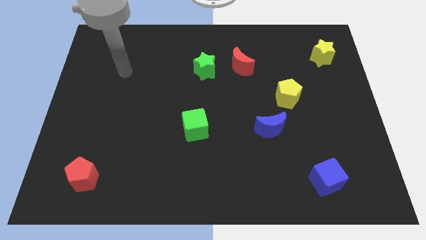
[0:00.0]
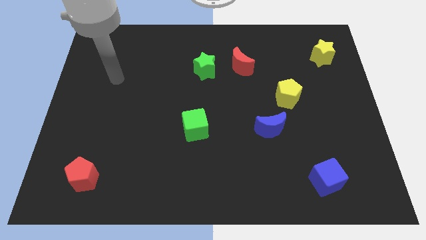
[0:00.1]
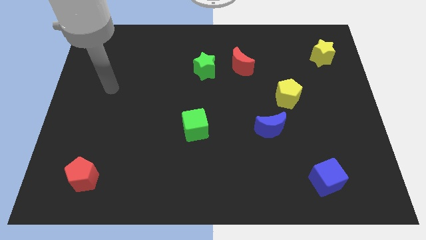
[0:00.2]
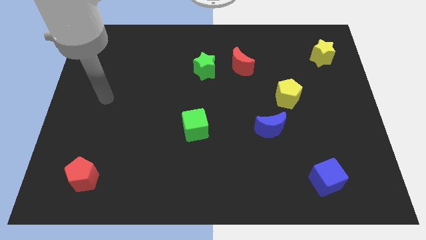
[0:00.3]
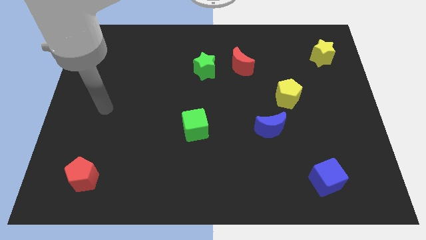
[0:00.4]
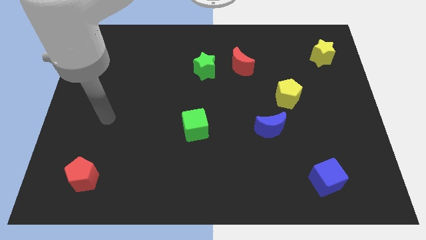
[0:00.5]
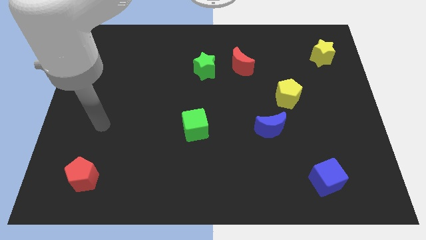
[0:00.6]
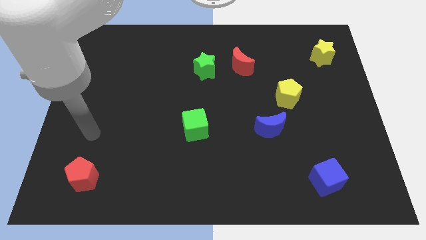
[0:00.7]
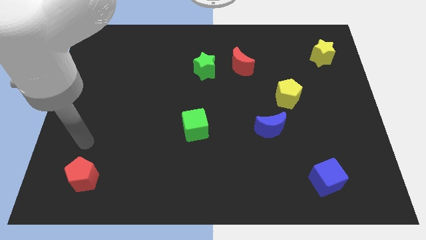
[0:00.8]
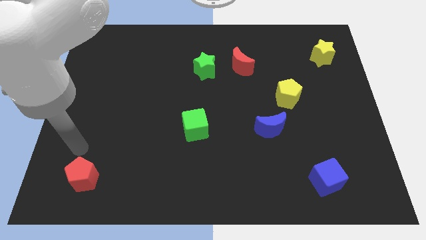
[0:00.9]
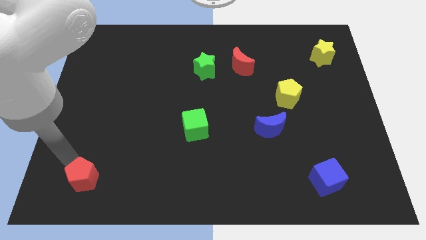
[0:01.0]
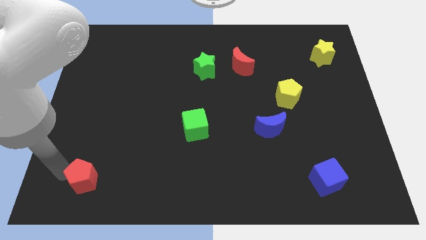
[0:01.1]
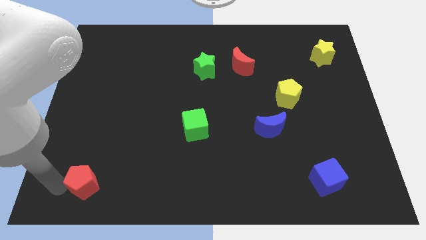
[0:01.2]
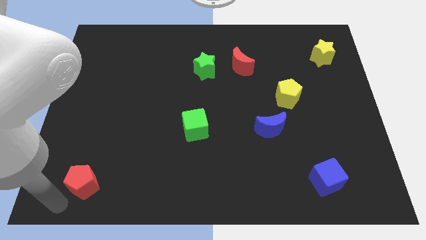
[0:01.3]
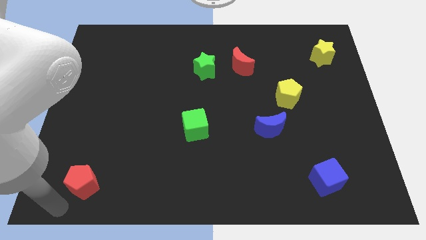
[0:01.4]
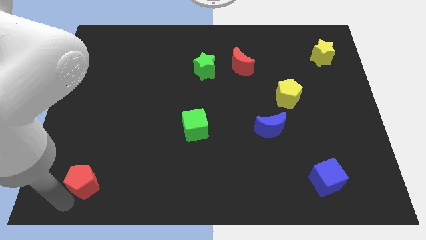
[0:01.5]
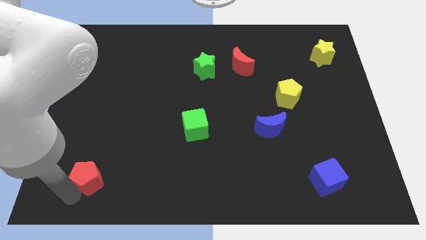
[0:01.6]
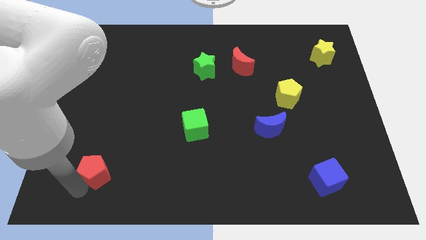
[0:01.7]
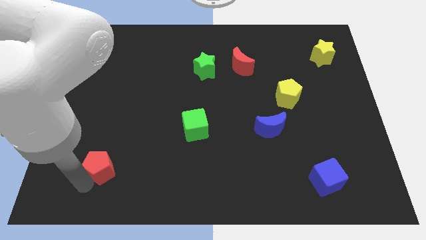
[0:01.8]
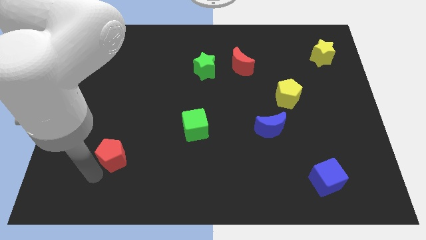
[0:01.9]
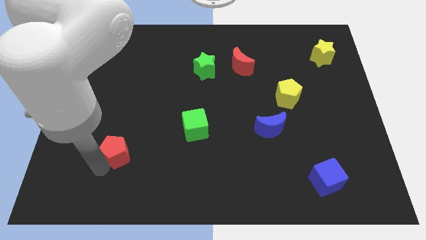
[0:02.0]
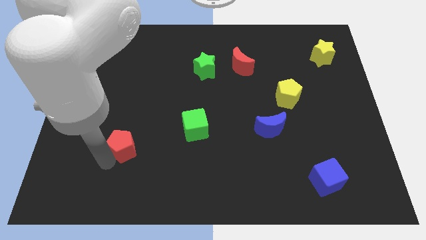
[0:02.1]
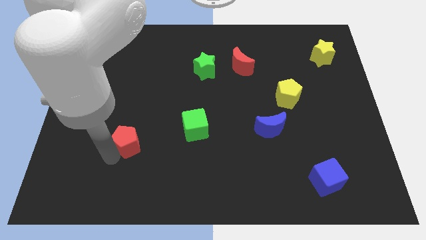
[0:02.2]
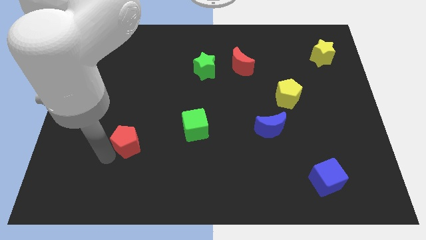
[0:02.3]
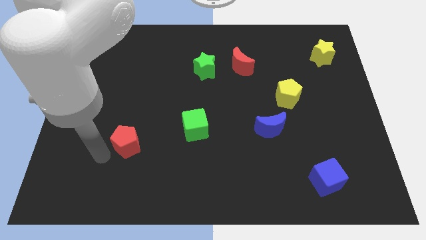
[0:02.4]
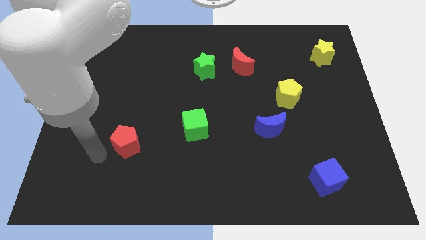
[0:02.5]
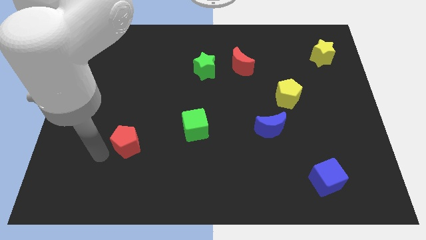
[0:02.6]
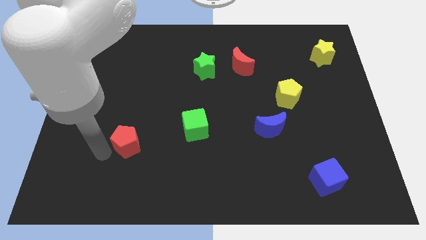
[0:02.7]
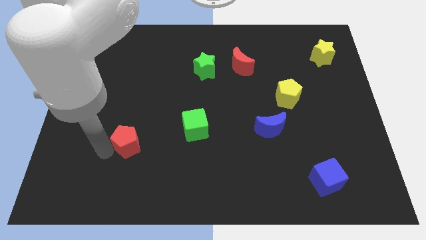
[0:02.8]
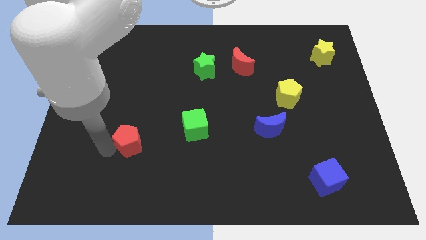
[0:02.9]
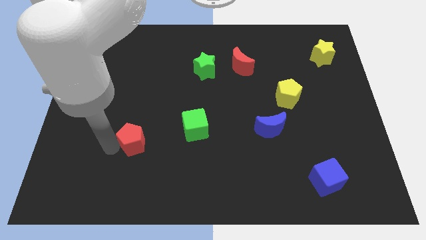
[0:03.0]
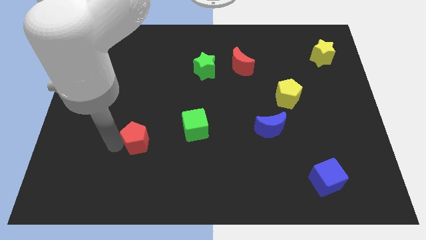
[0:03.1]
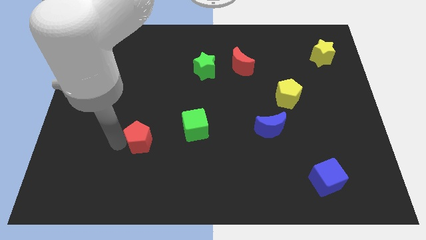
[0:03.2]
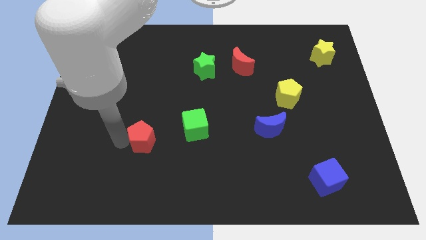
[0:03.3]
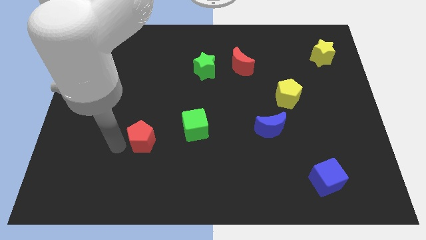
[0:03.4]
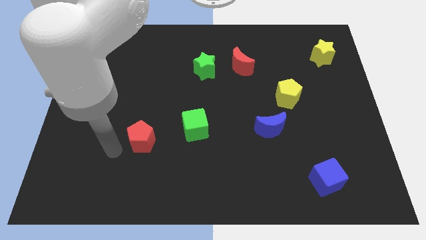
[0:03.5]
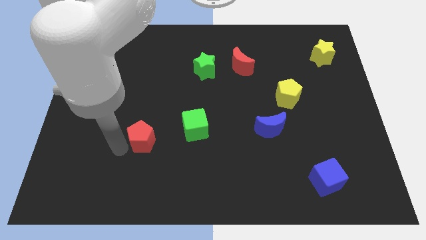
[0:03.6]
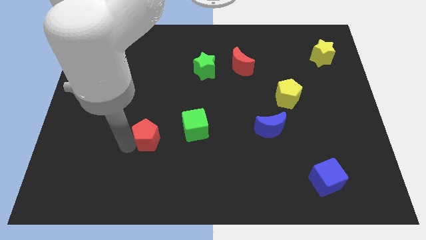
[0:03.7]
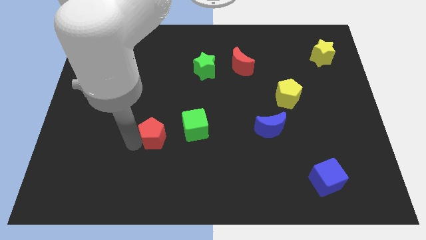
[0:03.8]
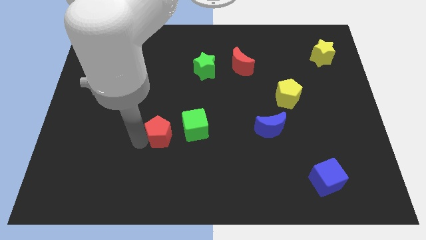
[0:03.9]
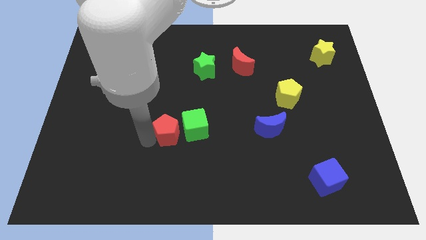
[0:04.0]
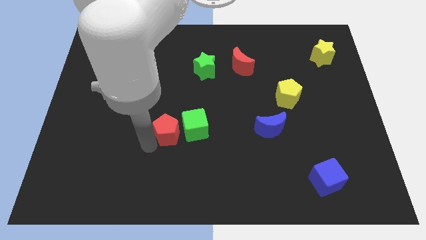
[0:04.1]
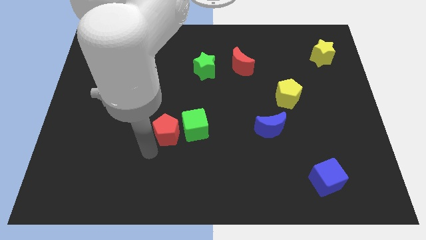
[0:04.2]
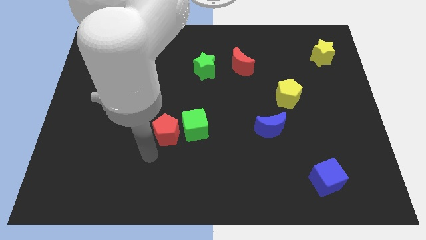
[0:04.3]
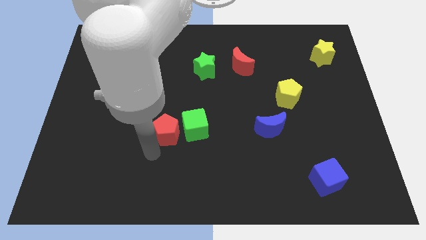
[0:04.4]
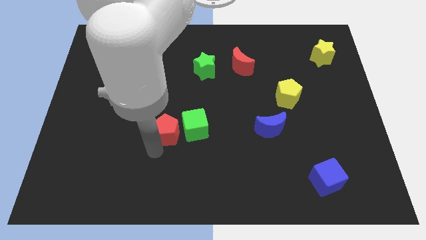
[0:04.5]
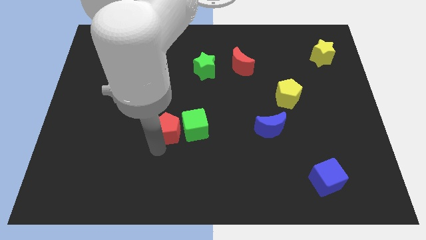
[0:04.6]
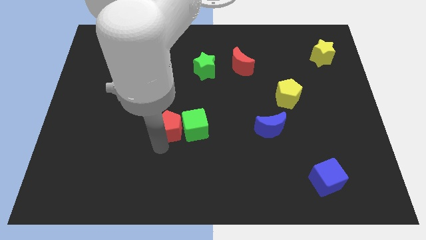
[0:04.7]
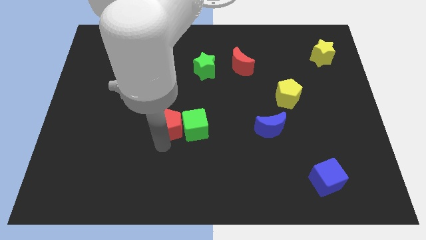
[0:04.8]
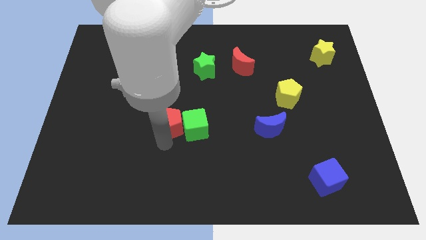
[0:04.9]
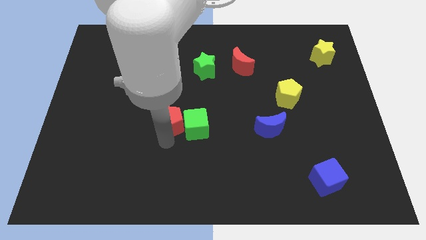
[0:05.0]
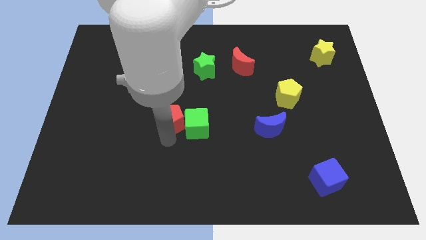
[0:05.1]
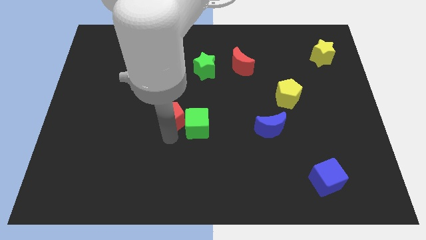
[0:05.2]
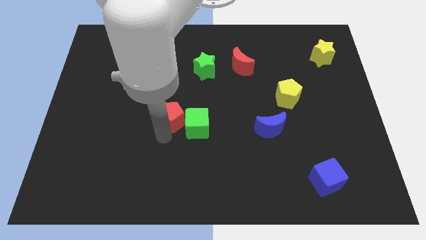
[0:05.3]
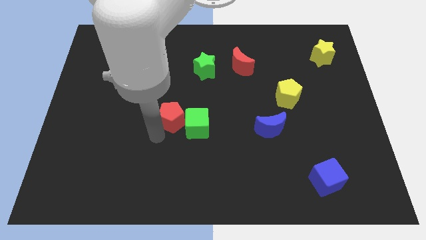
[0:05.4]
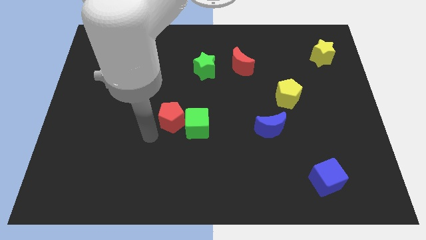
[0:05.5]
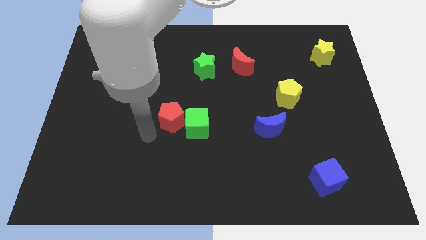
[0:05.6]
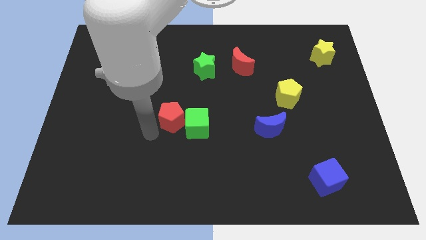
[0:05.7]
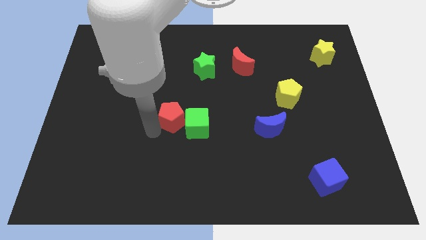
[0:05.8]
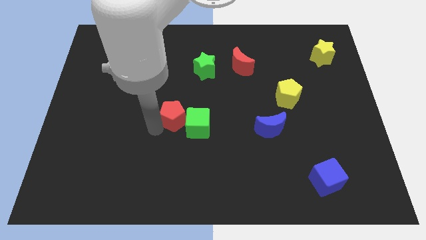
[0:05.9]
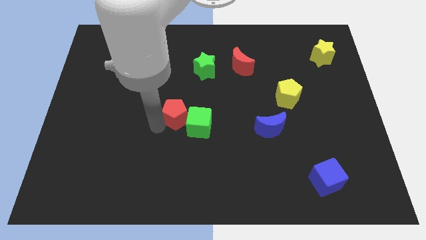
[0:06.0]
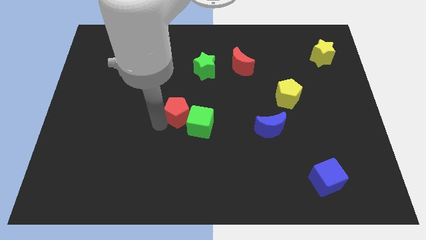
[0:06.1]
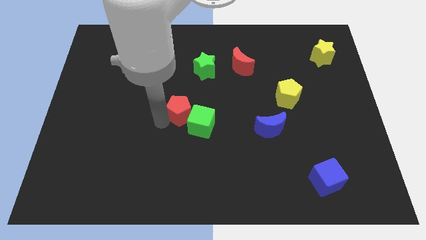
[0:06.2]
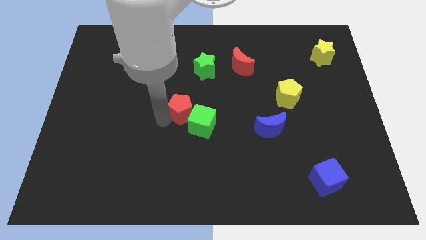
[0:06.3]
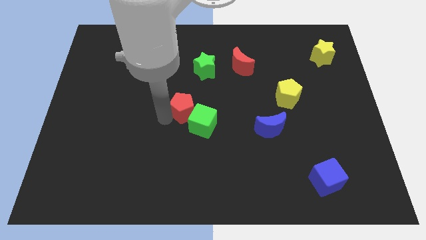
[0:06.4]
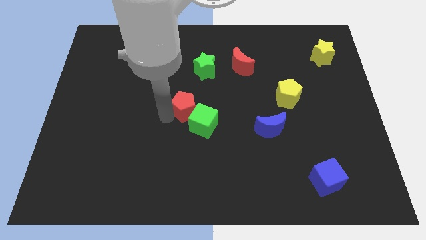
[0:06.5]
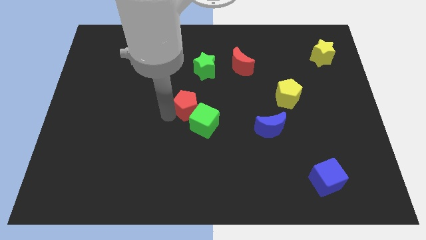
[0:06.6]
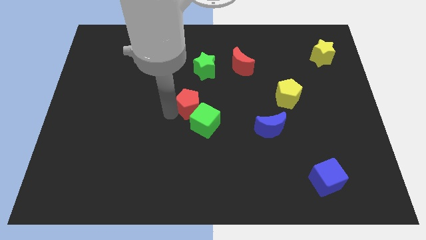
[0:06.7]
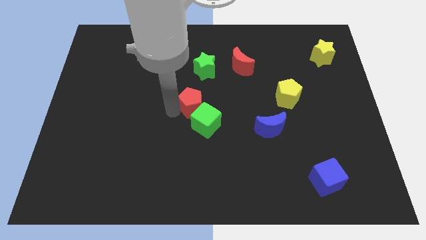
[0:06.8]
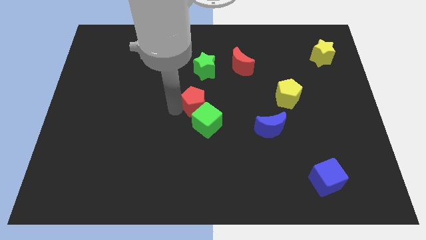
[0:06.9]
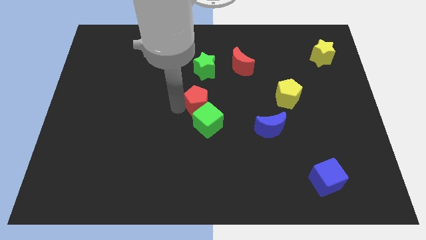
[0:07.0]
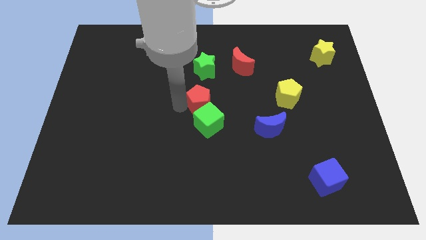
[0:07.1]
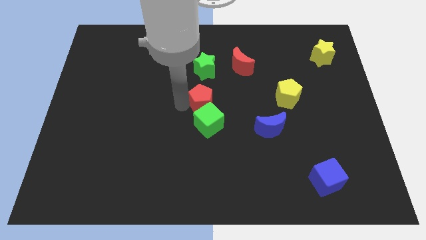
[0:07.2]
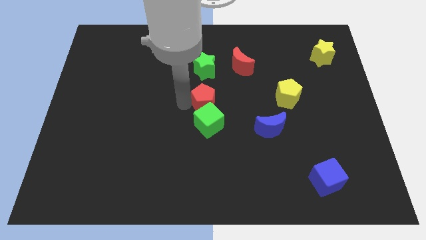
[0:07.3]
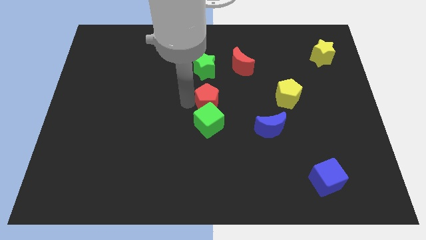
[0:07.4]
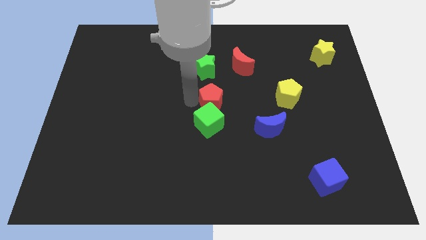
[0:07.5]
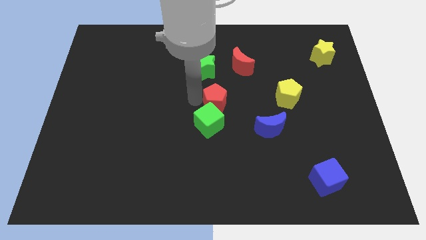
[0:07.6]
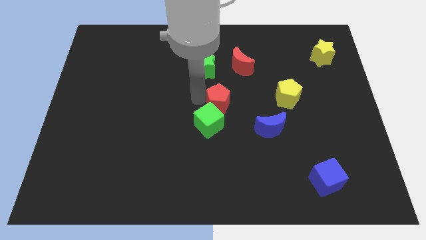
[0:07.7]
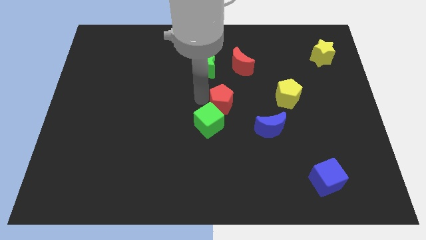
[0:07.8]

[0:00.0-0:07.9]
push the red pentagon to the left side of the yellow pentagon
